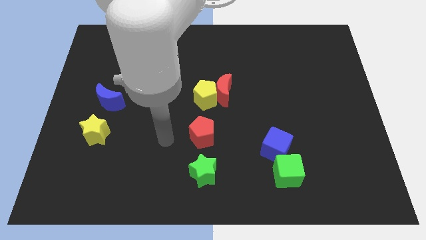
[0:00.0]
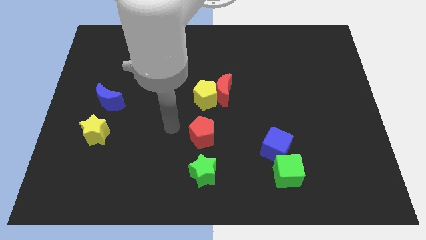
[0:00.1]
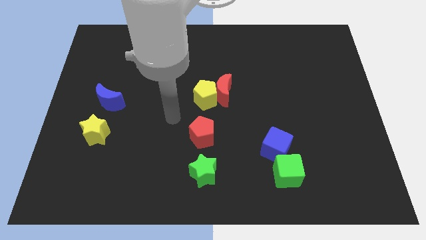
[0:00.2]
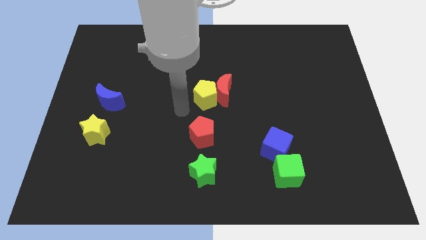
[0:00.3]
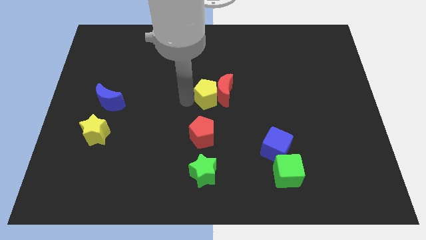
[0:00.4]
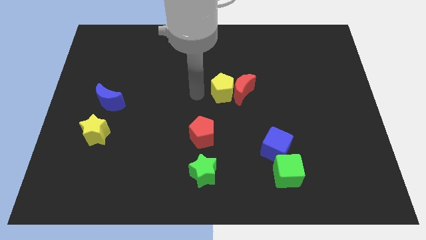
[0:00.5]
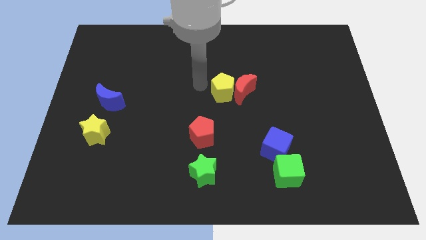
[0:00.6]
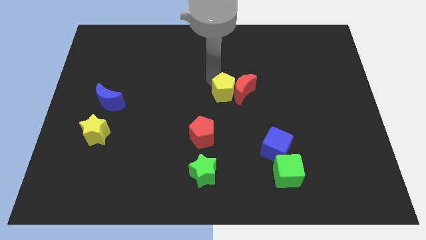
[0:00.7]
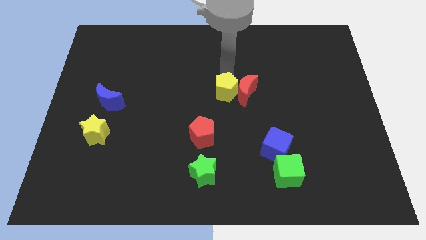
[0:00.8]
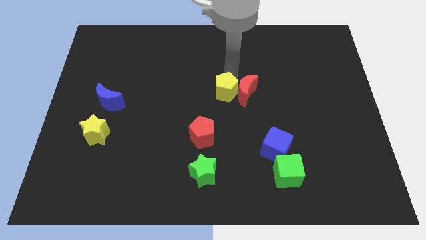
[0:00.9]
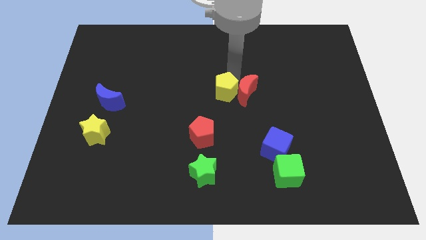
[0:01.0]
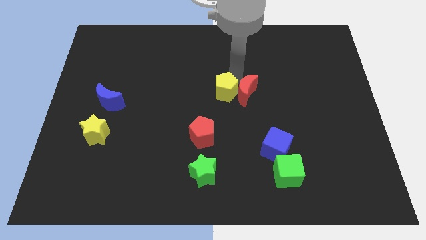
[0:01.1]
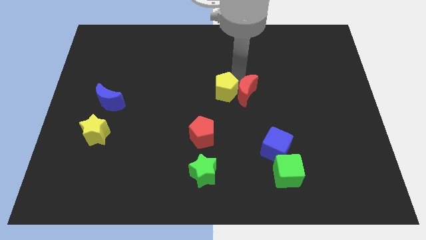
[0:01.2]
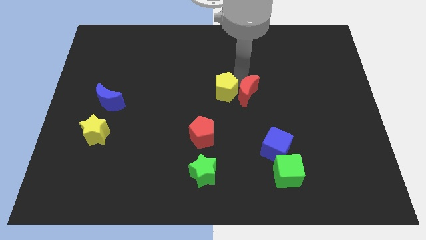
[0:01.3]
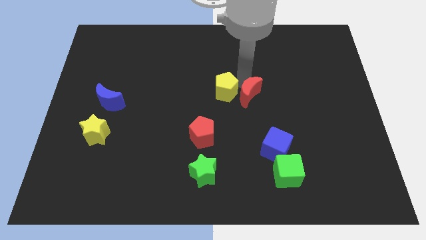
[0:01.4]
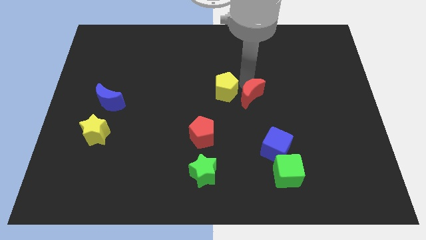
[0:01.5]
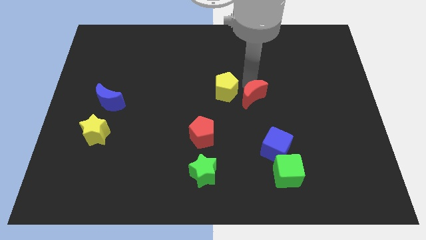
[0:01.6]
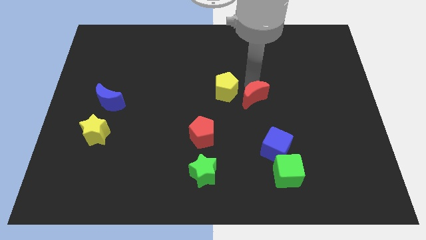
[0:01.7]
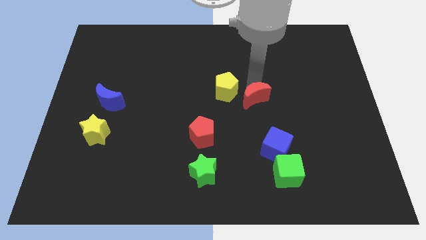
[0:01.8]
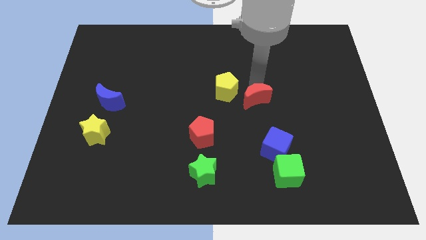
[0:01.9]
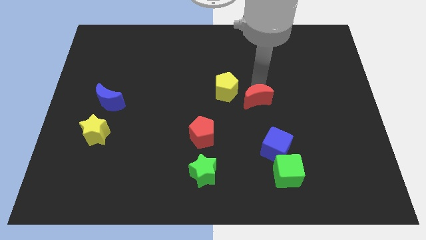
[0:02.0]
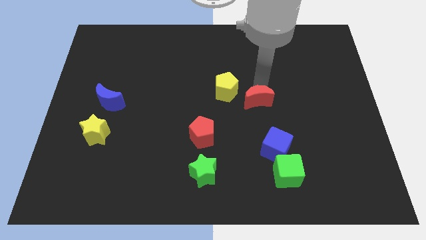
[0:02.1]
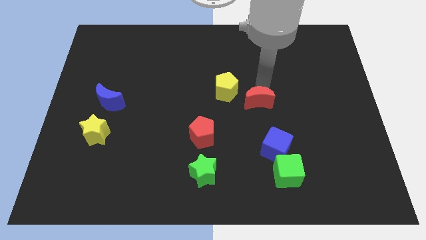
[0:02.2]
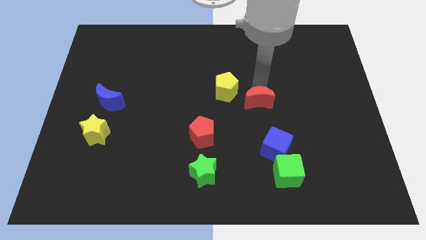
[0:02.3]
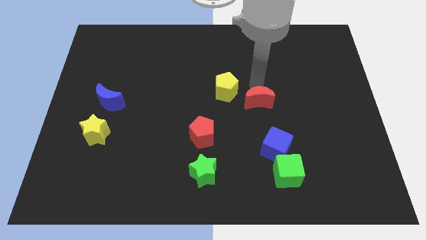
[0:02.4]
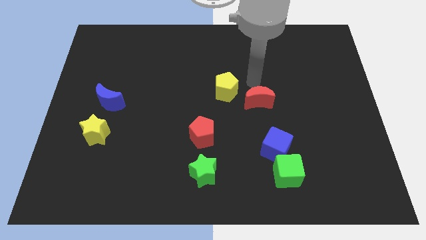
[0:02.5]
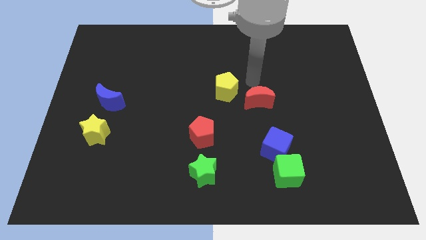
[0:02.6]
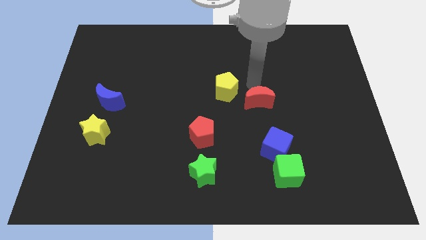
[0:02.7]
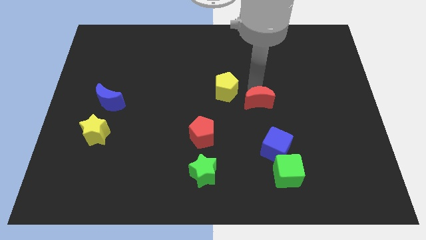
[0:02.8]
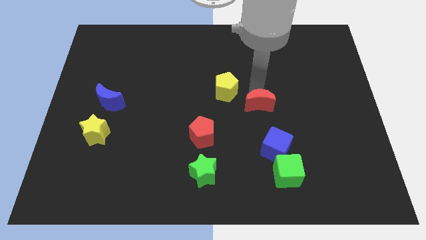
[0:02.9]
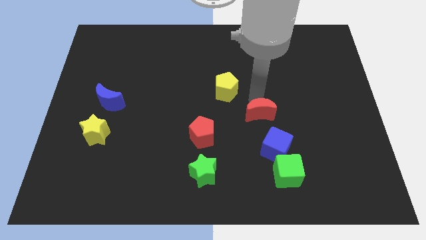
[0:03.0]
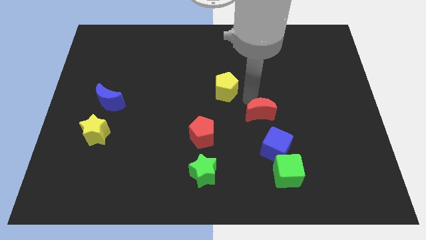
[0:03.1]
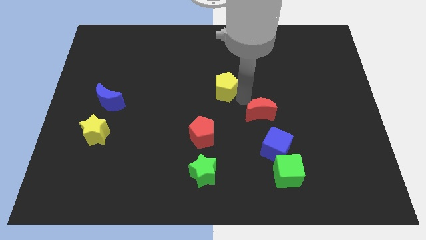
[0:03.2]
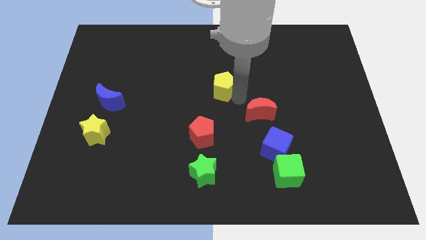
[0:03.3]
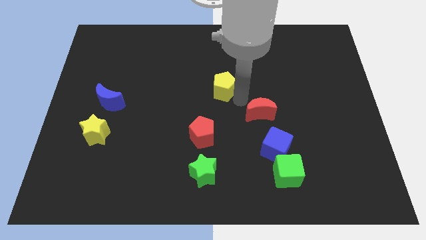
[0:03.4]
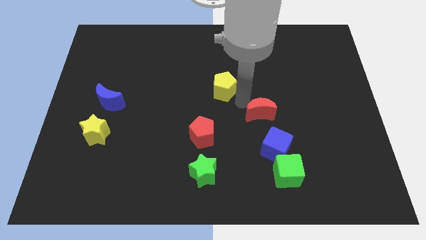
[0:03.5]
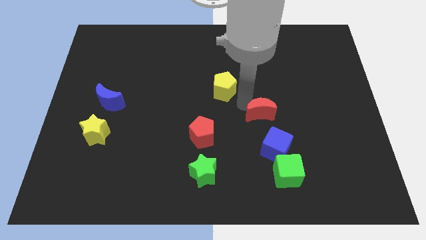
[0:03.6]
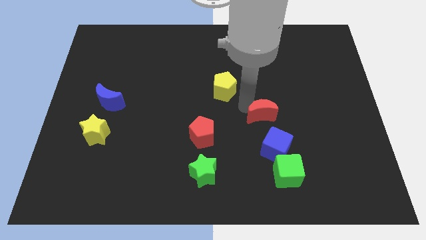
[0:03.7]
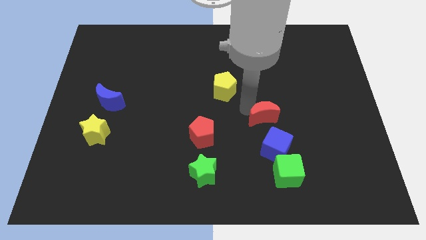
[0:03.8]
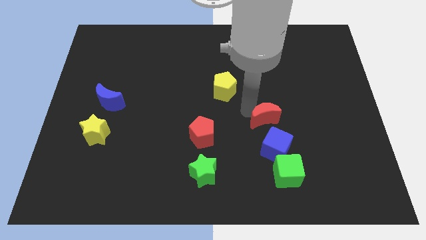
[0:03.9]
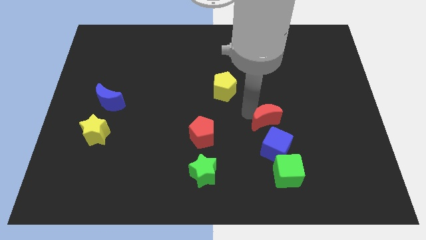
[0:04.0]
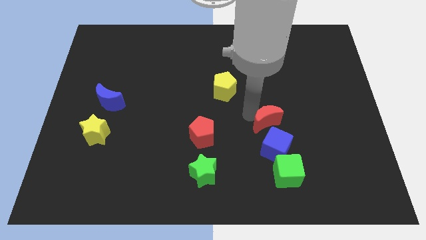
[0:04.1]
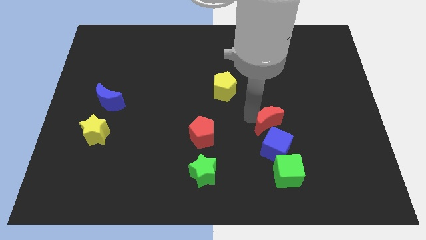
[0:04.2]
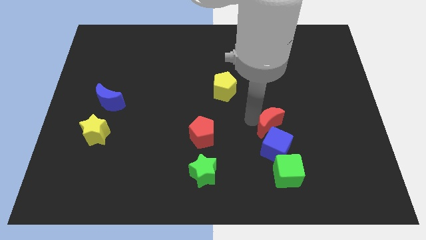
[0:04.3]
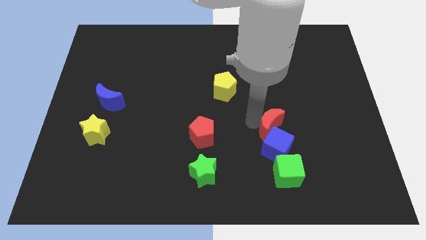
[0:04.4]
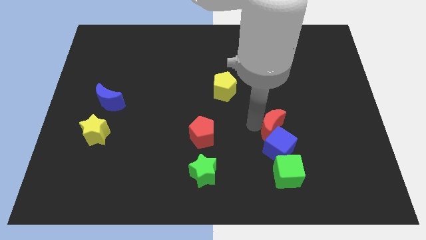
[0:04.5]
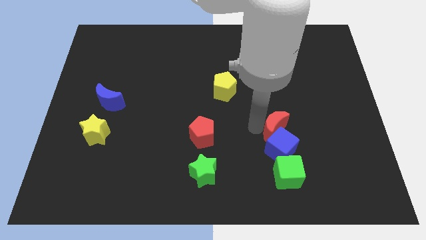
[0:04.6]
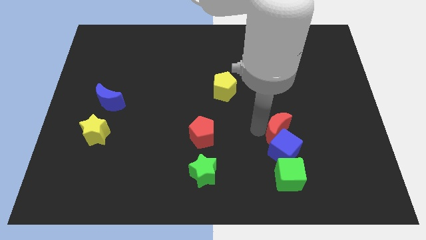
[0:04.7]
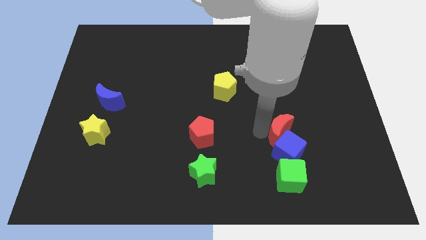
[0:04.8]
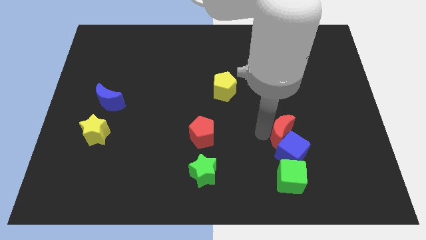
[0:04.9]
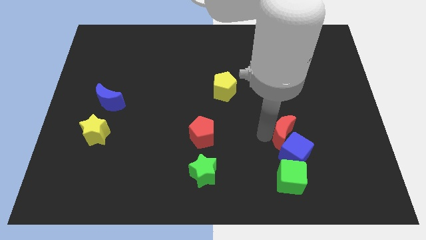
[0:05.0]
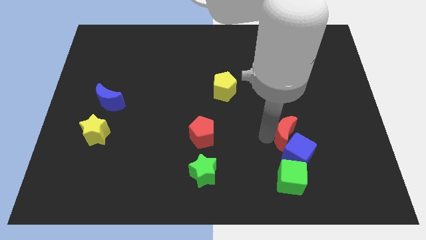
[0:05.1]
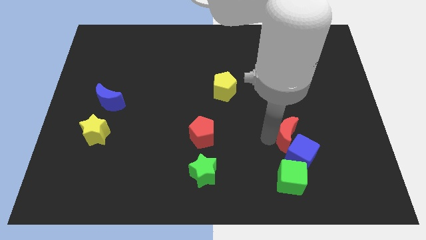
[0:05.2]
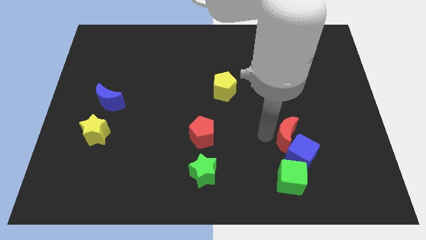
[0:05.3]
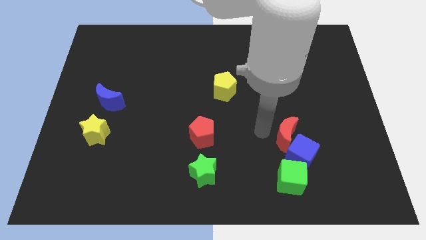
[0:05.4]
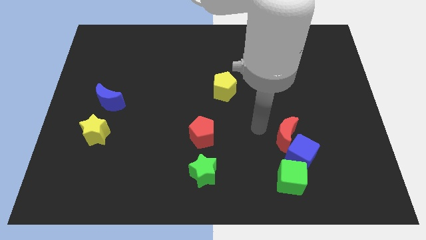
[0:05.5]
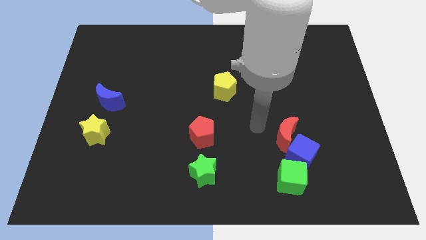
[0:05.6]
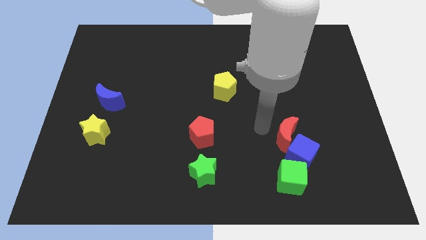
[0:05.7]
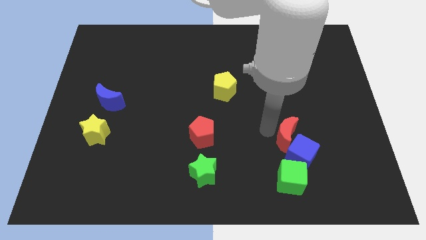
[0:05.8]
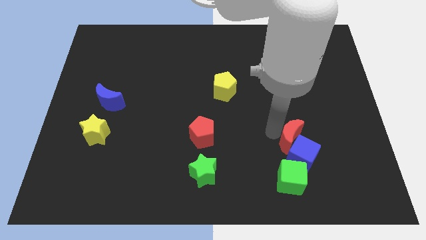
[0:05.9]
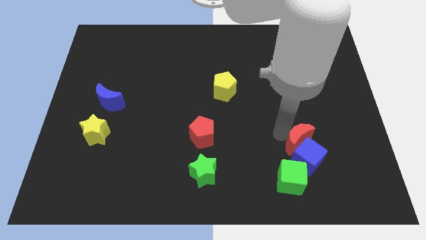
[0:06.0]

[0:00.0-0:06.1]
slide the red moon downwards and to the right

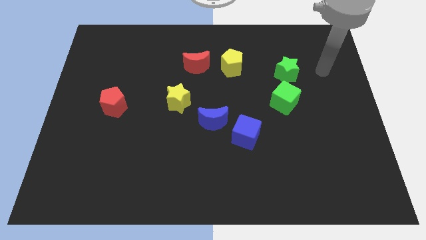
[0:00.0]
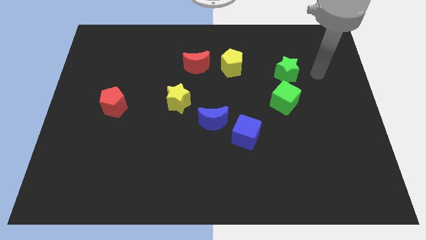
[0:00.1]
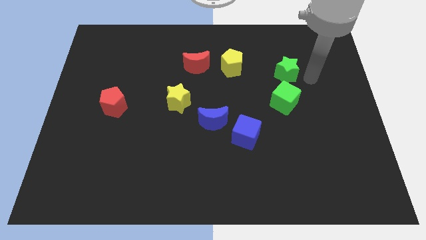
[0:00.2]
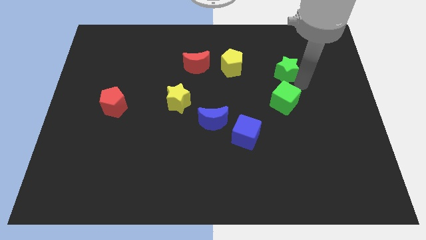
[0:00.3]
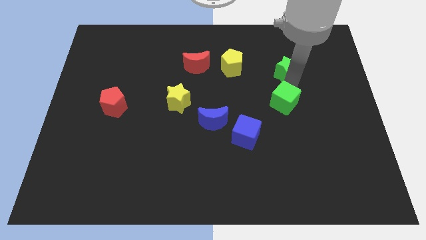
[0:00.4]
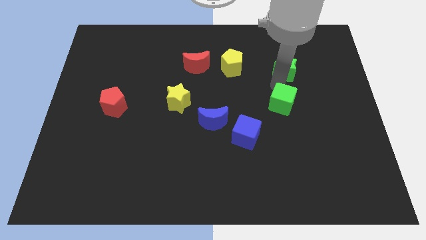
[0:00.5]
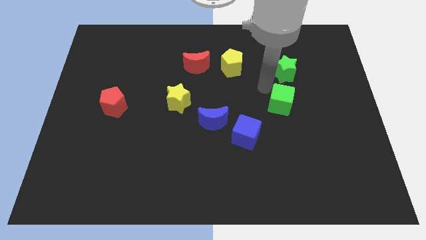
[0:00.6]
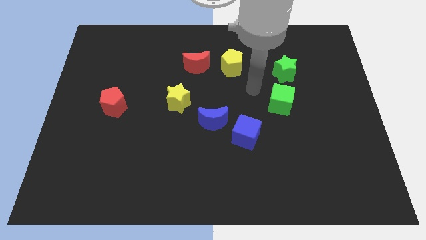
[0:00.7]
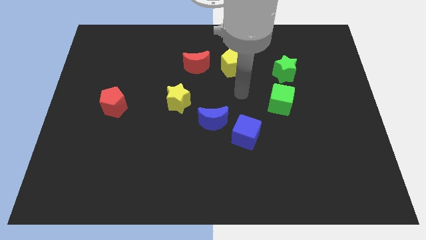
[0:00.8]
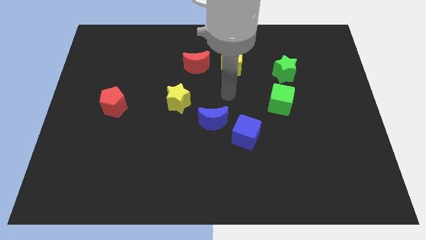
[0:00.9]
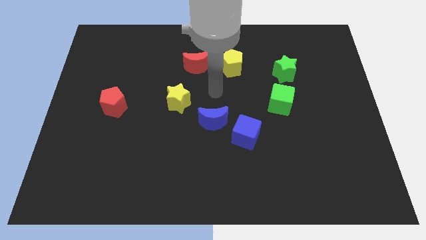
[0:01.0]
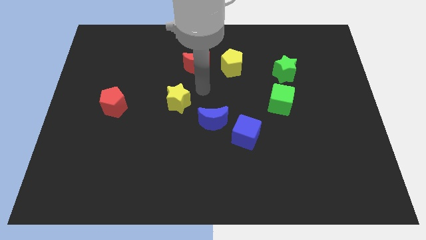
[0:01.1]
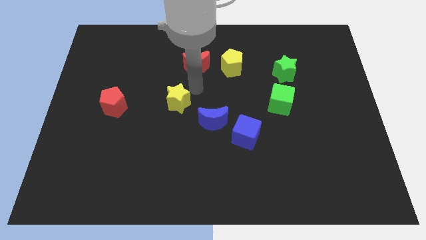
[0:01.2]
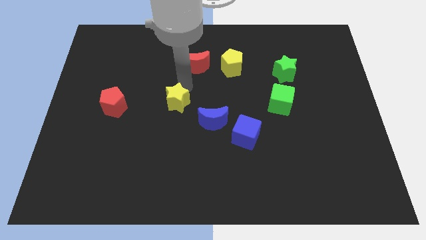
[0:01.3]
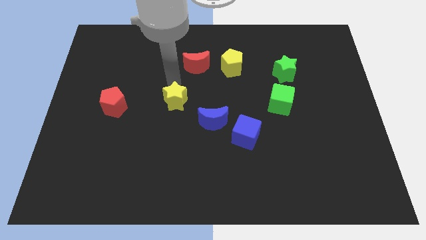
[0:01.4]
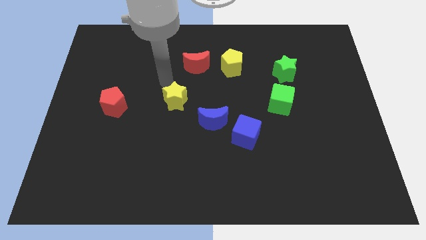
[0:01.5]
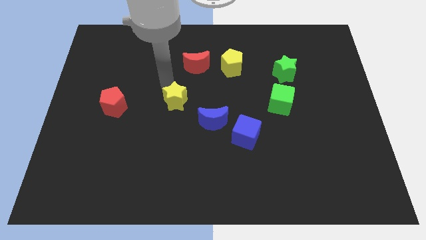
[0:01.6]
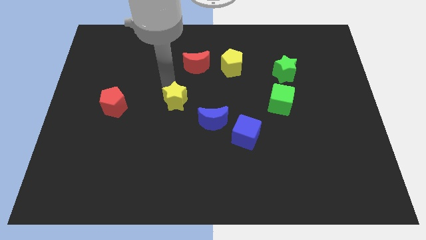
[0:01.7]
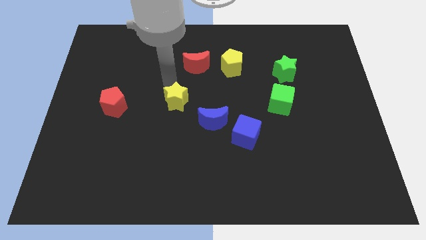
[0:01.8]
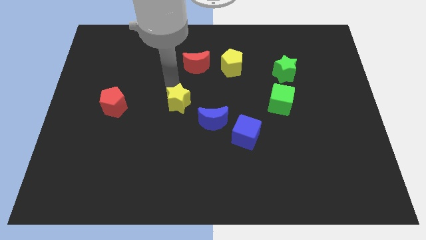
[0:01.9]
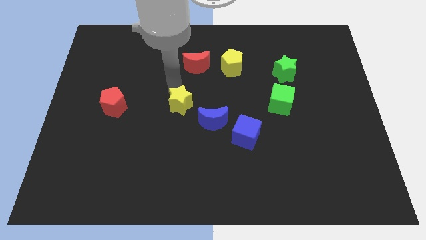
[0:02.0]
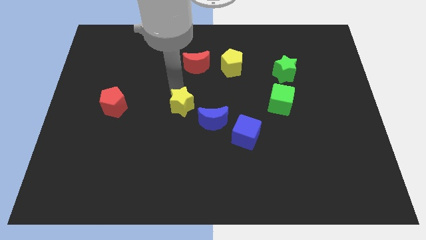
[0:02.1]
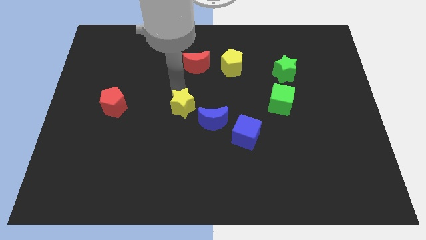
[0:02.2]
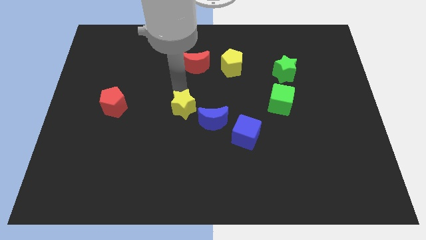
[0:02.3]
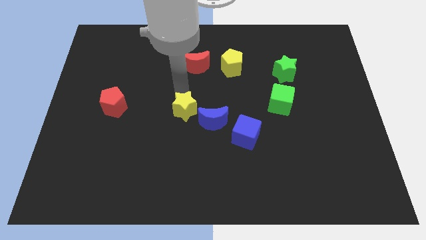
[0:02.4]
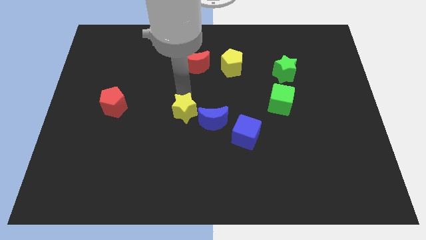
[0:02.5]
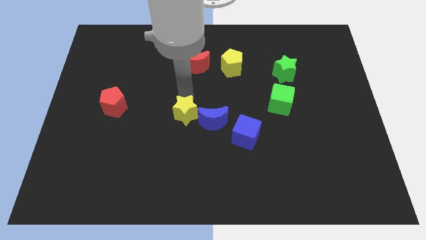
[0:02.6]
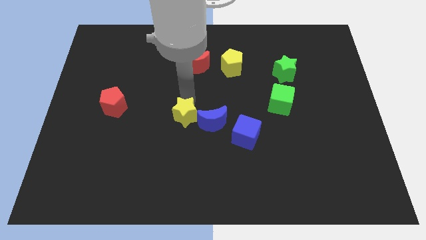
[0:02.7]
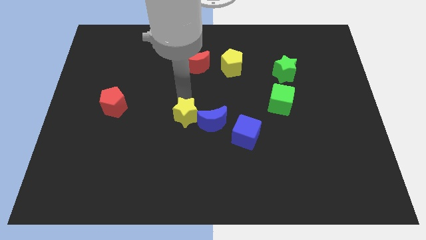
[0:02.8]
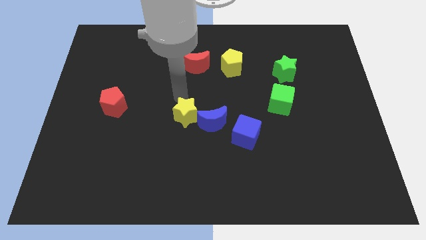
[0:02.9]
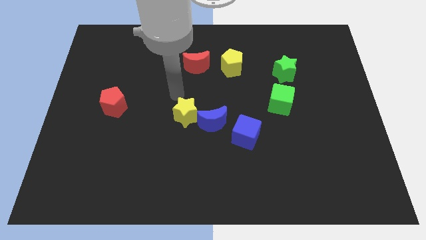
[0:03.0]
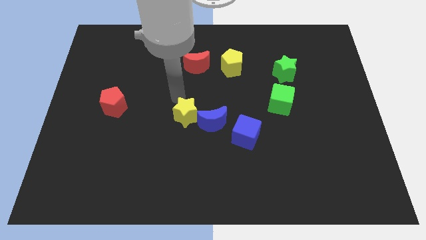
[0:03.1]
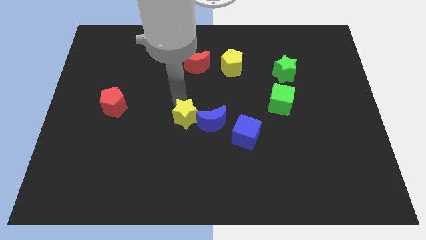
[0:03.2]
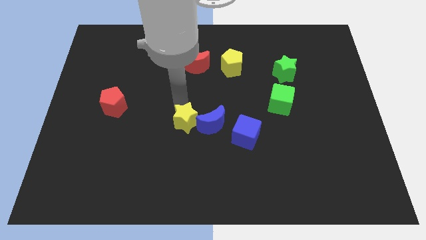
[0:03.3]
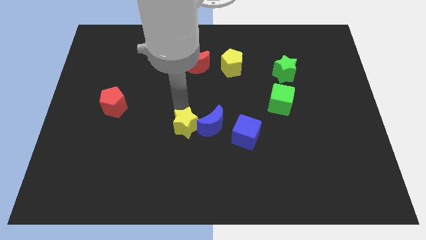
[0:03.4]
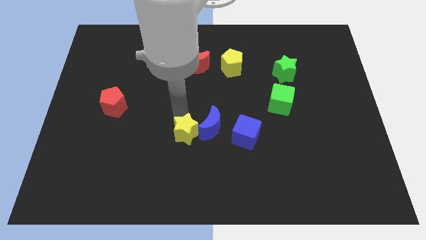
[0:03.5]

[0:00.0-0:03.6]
move the yellow star diagonally downwards and to the right slightly
